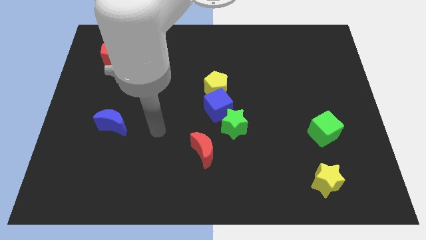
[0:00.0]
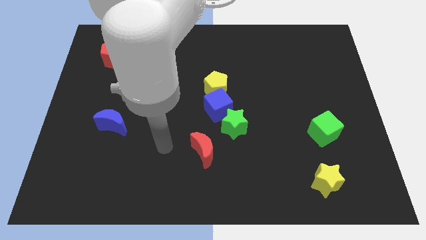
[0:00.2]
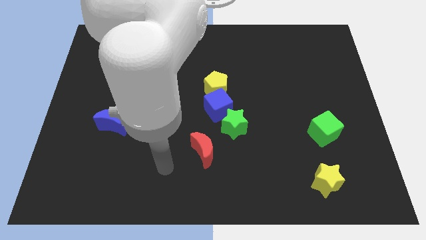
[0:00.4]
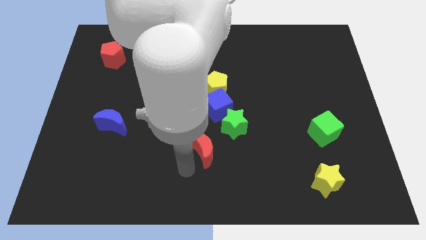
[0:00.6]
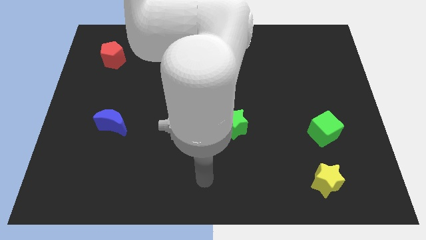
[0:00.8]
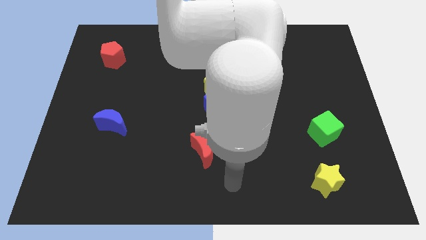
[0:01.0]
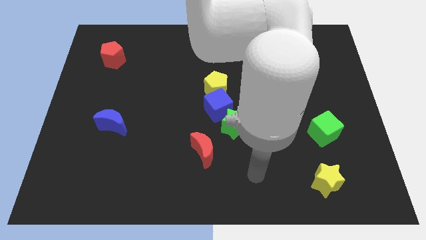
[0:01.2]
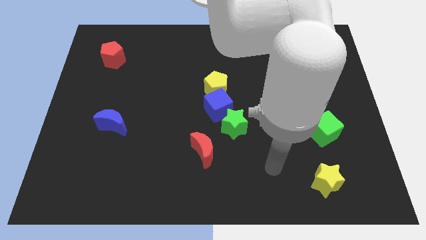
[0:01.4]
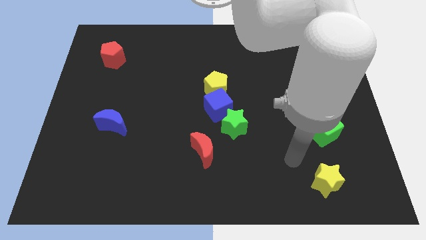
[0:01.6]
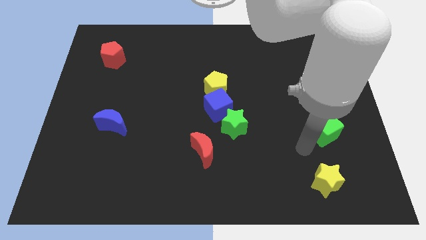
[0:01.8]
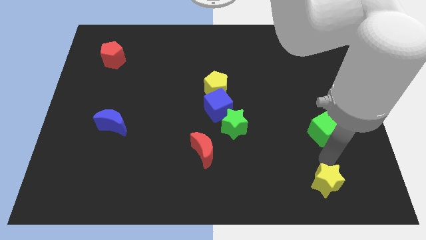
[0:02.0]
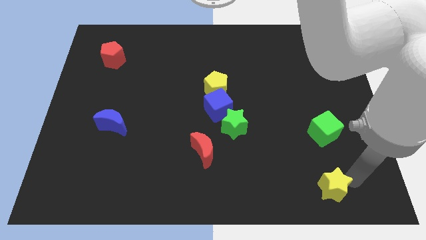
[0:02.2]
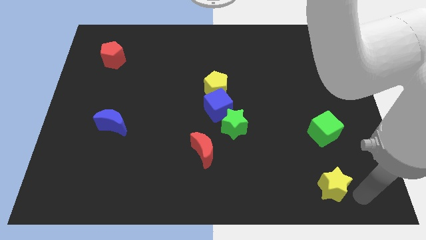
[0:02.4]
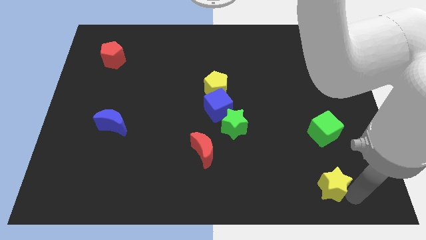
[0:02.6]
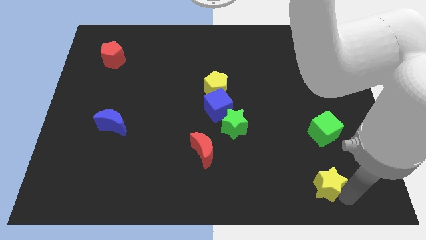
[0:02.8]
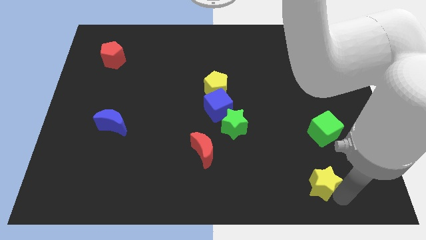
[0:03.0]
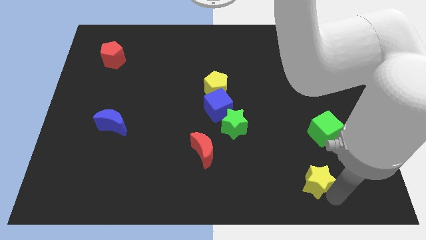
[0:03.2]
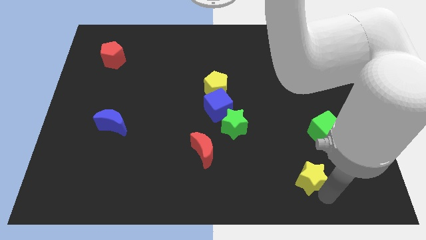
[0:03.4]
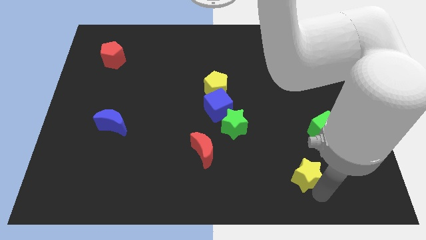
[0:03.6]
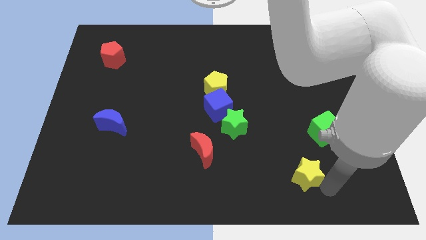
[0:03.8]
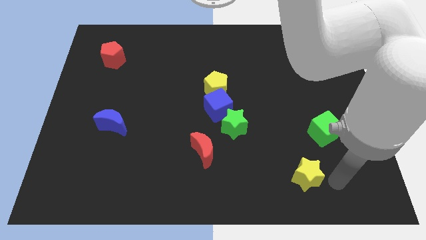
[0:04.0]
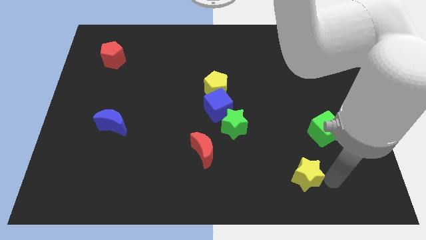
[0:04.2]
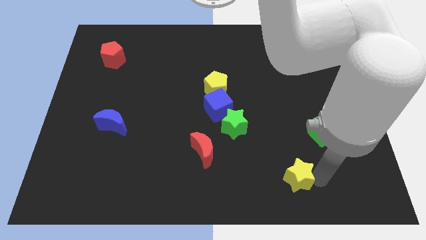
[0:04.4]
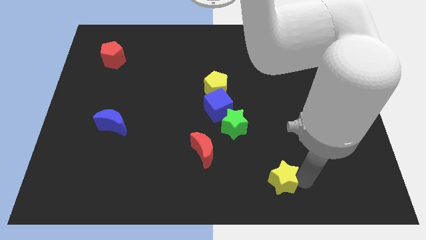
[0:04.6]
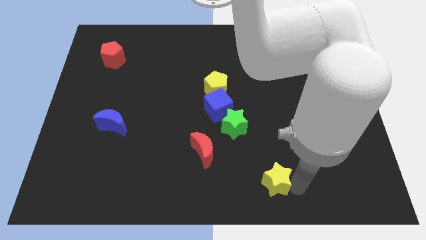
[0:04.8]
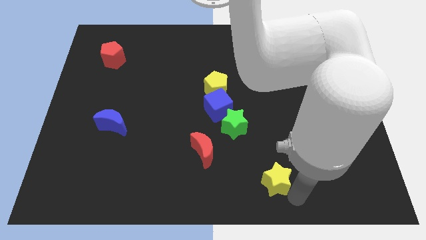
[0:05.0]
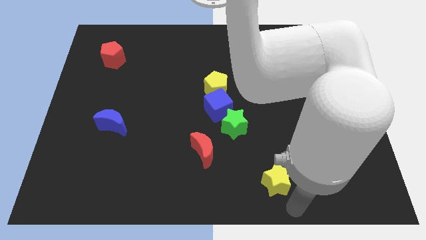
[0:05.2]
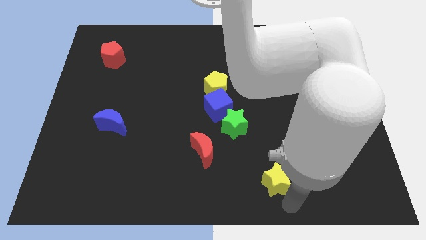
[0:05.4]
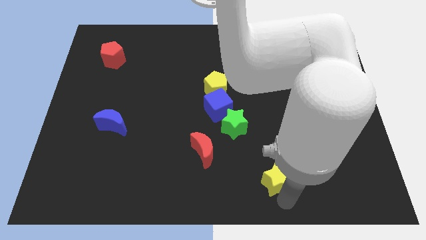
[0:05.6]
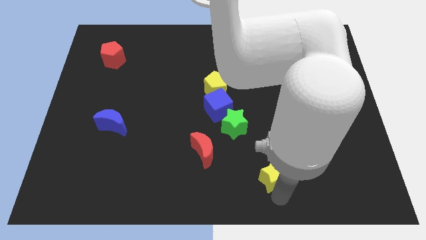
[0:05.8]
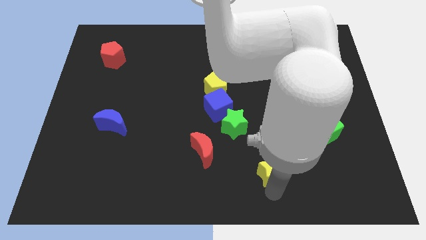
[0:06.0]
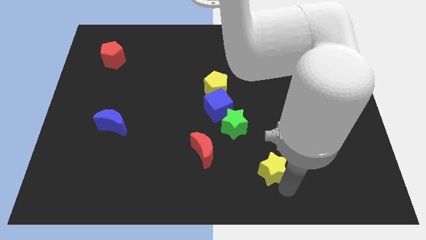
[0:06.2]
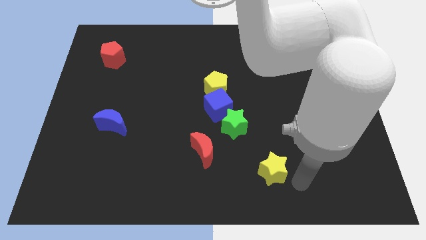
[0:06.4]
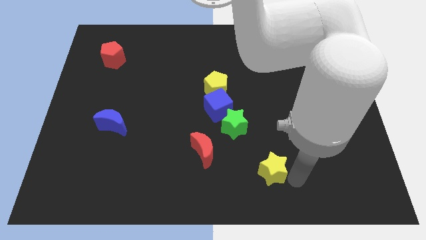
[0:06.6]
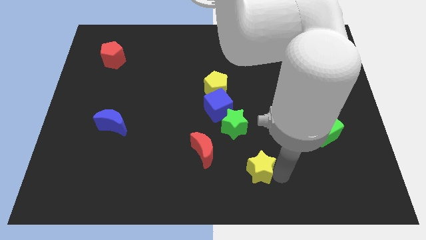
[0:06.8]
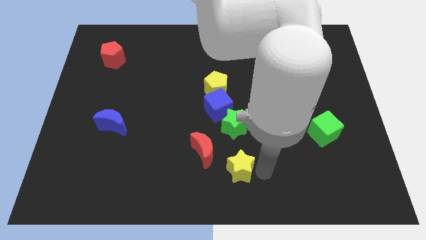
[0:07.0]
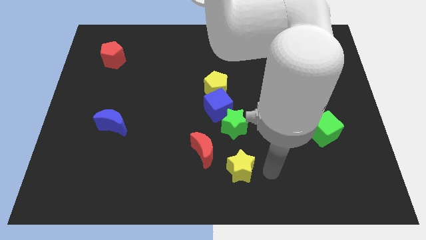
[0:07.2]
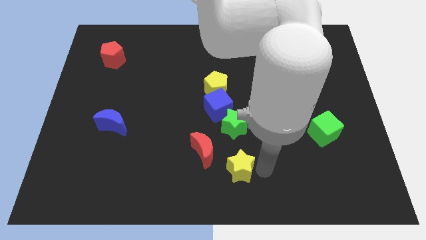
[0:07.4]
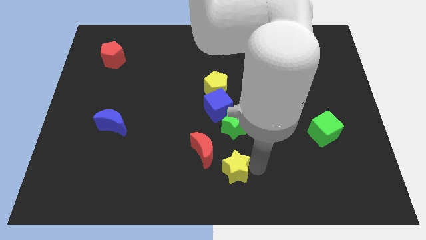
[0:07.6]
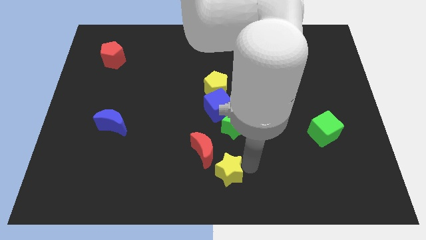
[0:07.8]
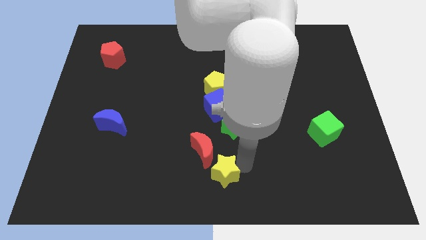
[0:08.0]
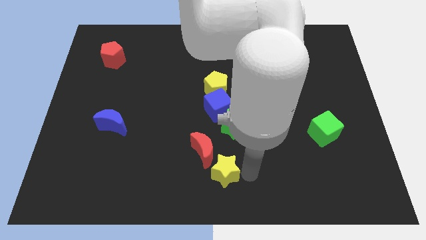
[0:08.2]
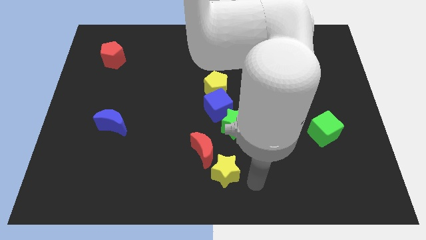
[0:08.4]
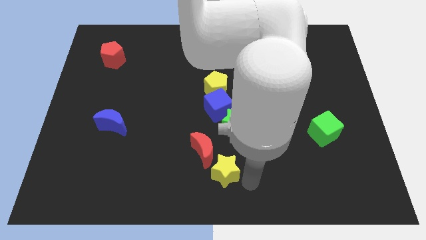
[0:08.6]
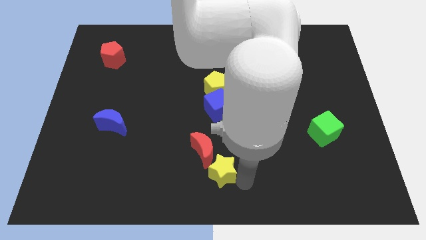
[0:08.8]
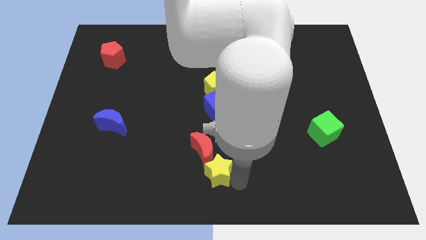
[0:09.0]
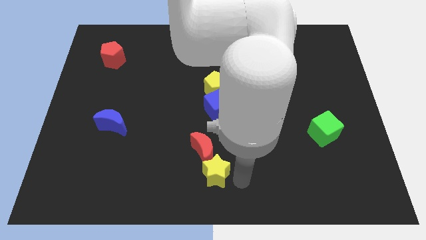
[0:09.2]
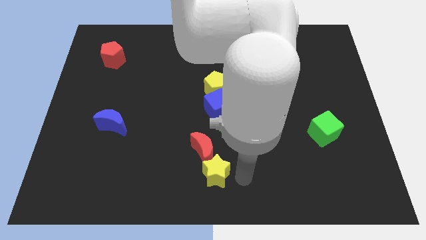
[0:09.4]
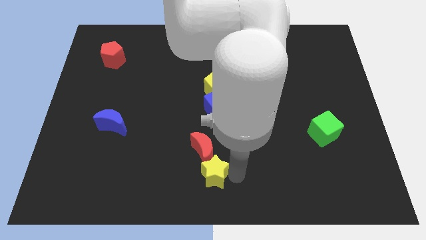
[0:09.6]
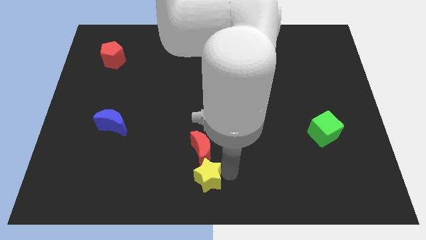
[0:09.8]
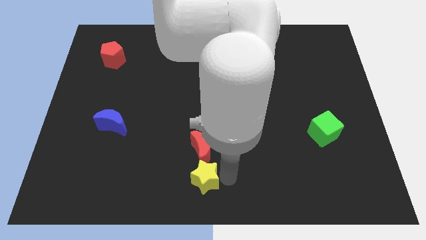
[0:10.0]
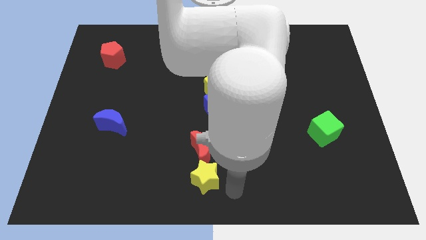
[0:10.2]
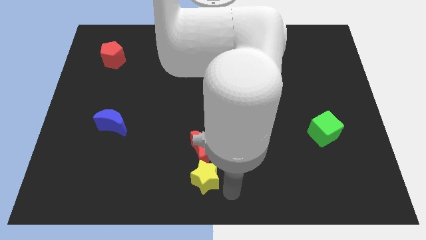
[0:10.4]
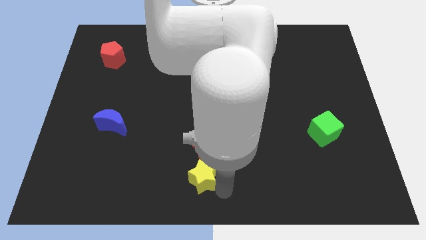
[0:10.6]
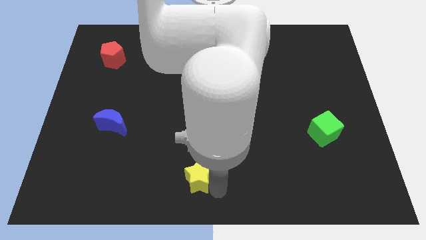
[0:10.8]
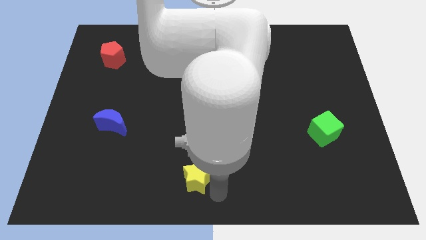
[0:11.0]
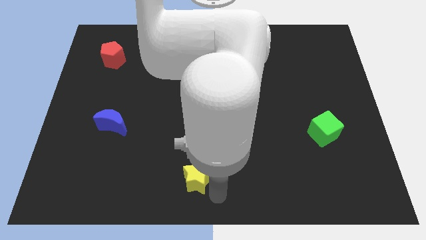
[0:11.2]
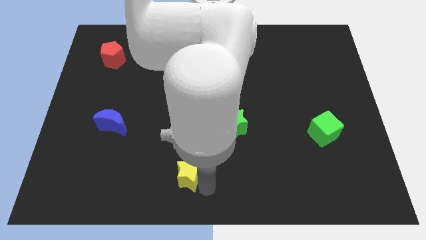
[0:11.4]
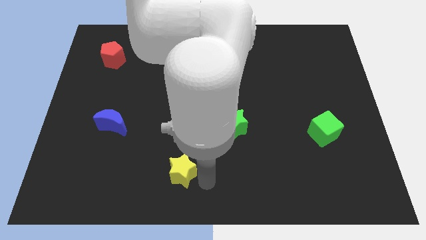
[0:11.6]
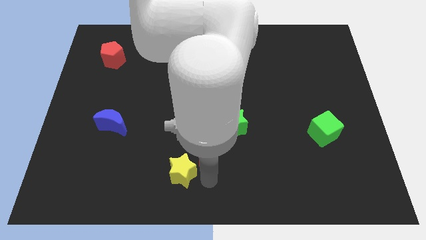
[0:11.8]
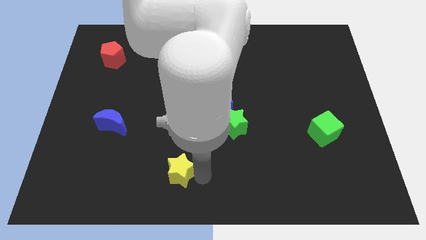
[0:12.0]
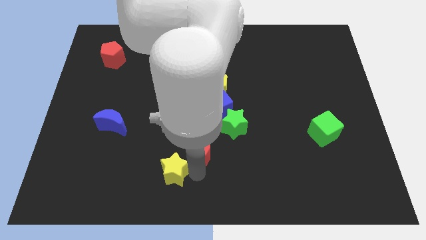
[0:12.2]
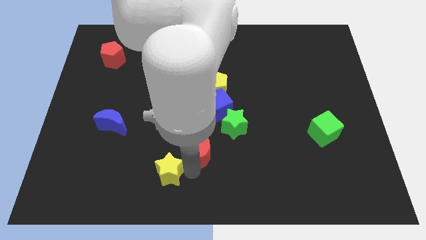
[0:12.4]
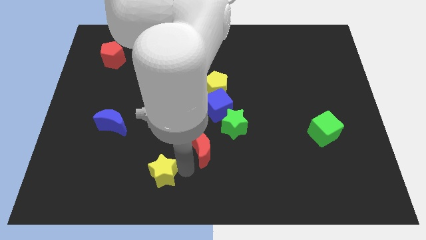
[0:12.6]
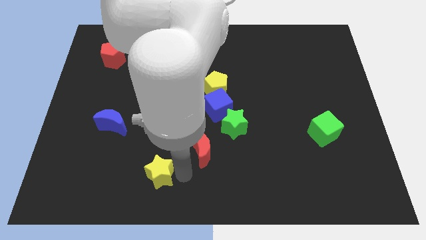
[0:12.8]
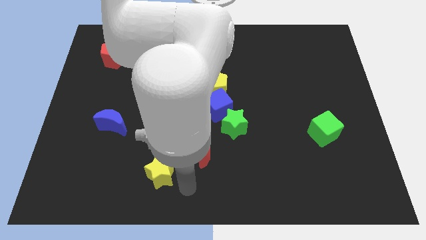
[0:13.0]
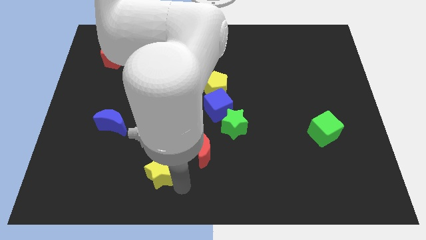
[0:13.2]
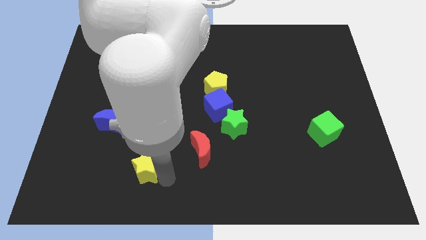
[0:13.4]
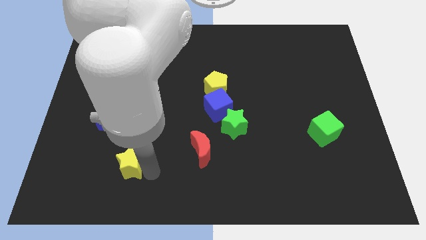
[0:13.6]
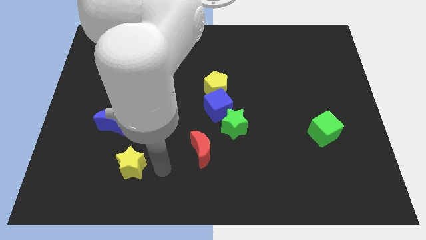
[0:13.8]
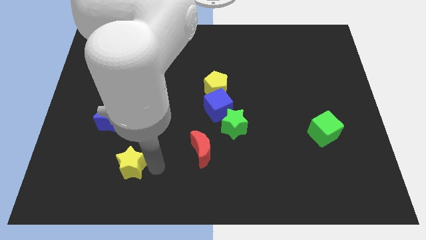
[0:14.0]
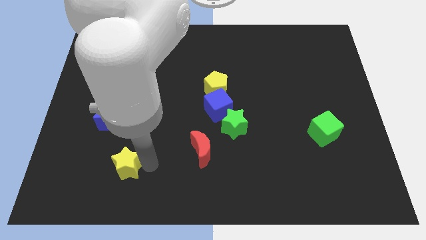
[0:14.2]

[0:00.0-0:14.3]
slide the yellow star below the blue moon
